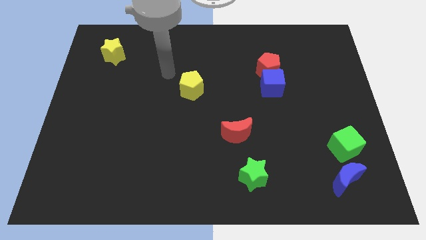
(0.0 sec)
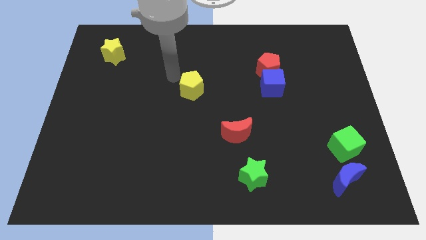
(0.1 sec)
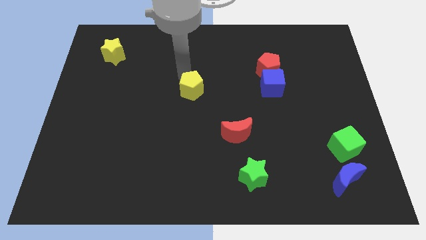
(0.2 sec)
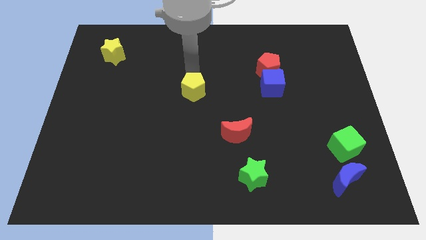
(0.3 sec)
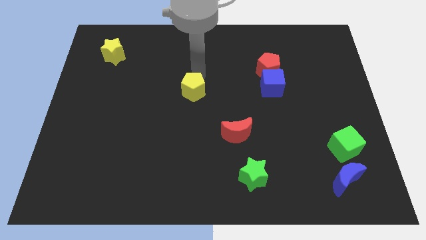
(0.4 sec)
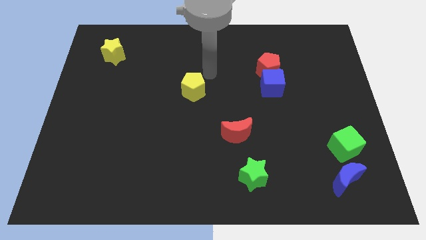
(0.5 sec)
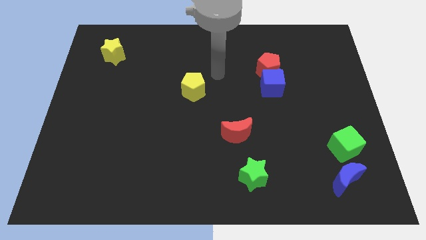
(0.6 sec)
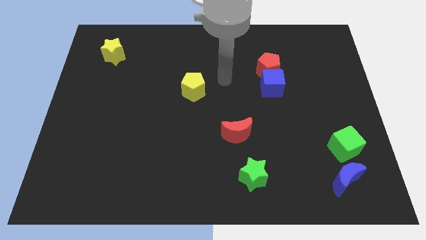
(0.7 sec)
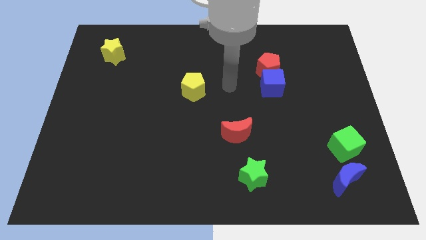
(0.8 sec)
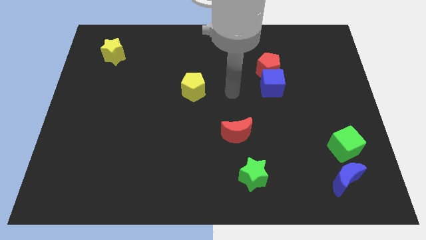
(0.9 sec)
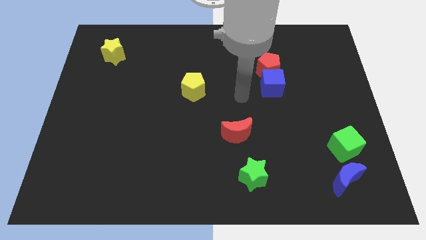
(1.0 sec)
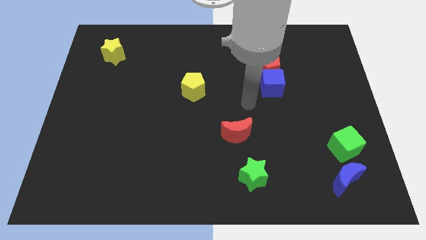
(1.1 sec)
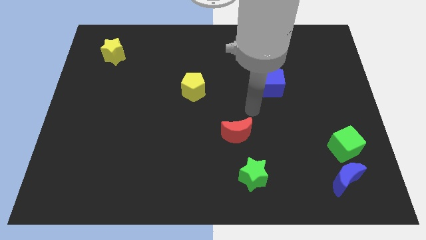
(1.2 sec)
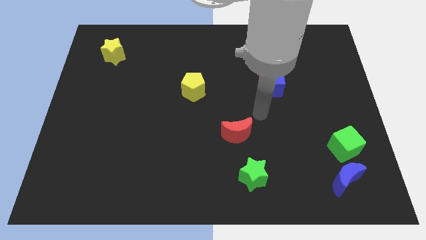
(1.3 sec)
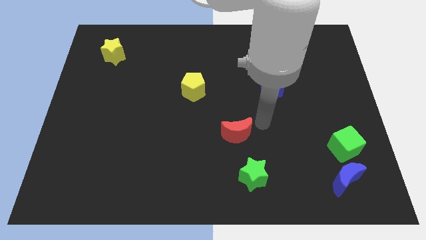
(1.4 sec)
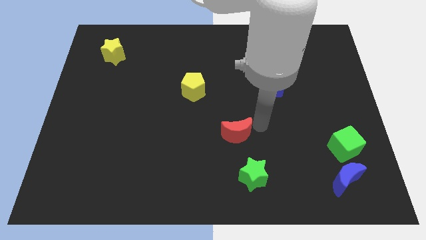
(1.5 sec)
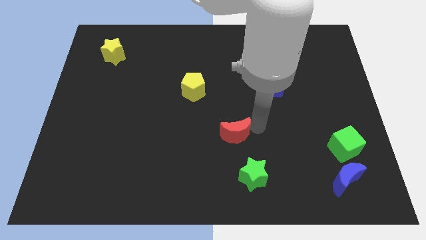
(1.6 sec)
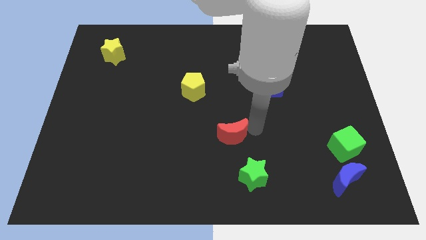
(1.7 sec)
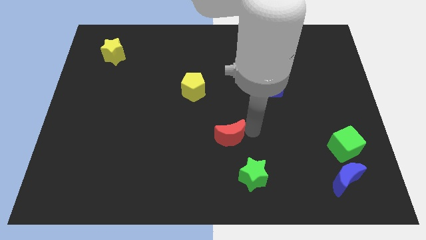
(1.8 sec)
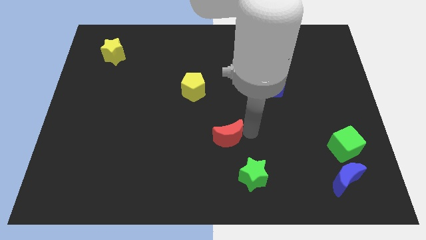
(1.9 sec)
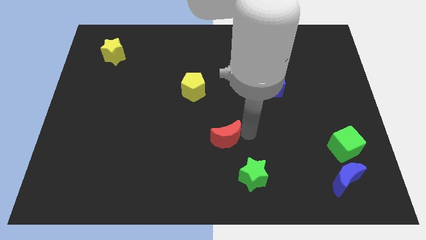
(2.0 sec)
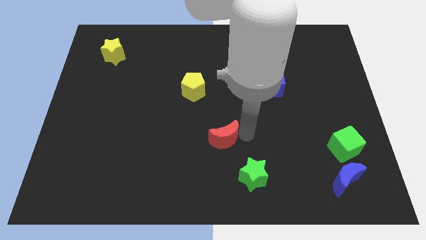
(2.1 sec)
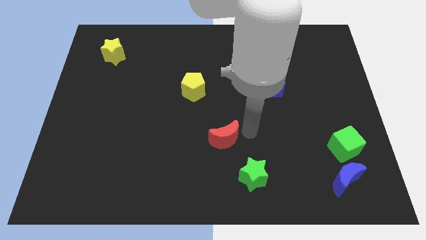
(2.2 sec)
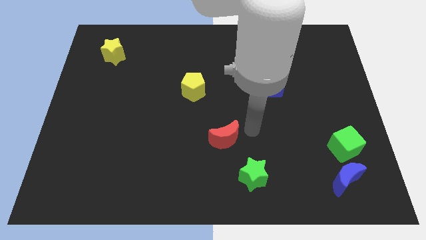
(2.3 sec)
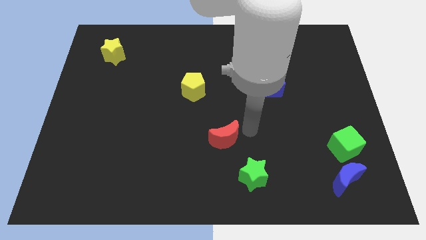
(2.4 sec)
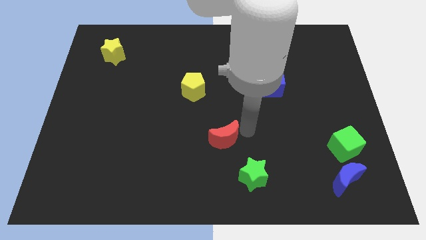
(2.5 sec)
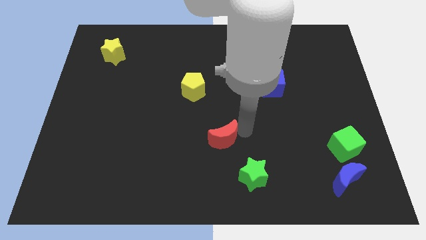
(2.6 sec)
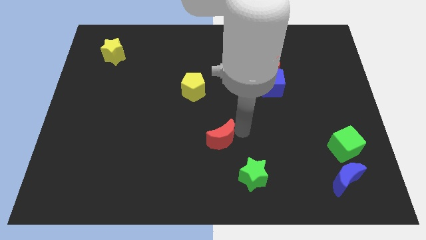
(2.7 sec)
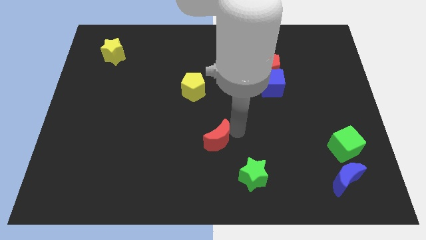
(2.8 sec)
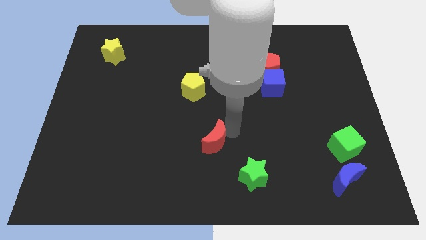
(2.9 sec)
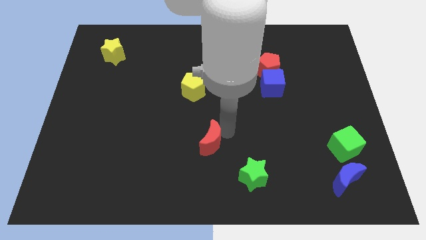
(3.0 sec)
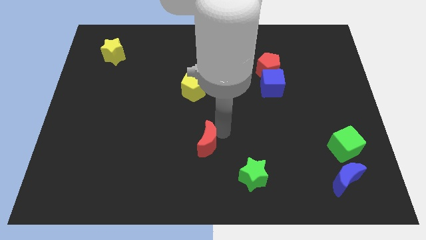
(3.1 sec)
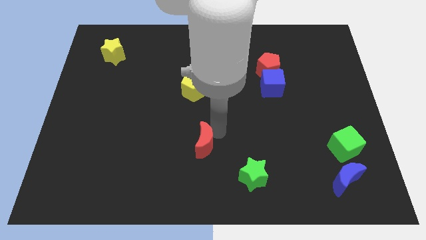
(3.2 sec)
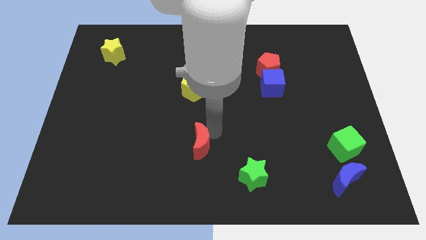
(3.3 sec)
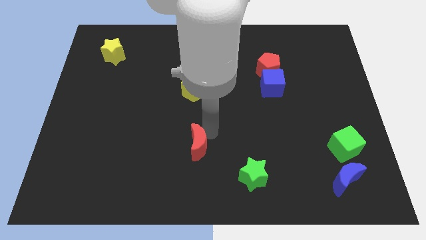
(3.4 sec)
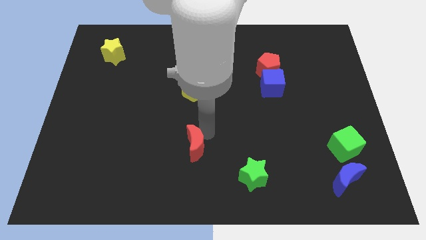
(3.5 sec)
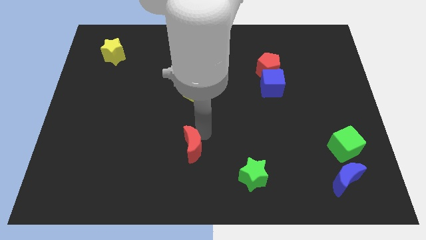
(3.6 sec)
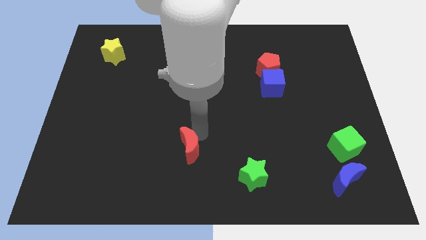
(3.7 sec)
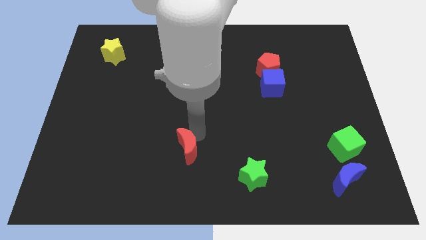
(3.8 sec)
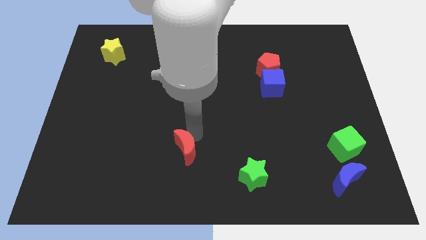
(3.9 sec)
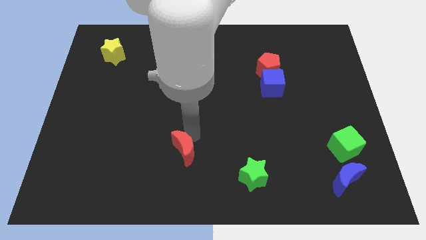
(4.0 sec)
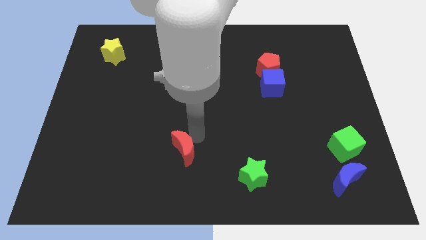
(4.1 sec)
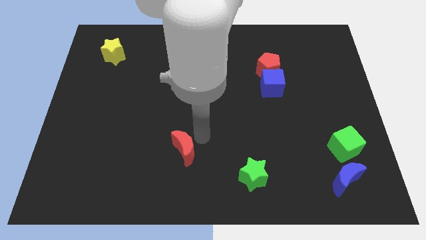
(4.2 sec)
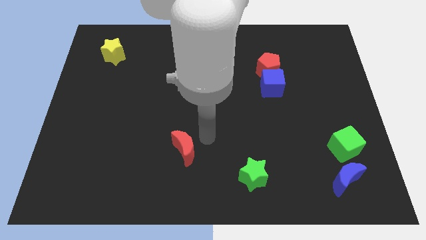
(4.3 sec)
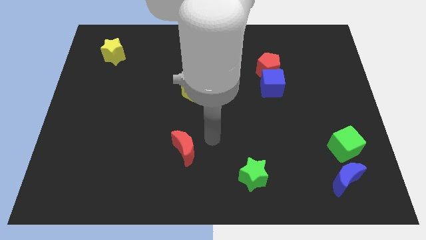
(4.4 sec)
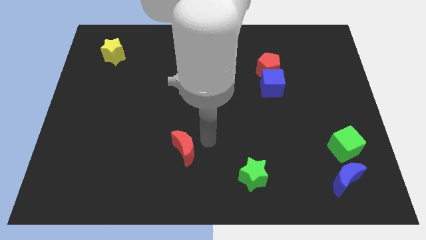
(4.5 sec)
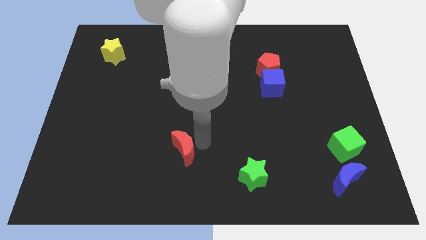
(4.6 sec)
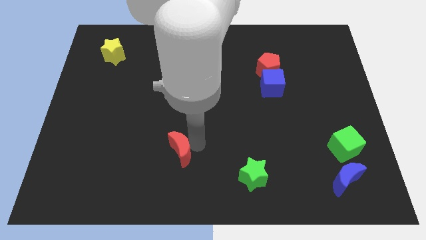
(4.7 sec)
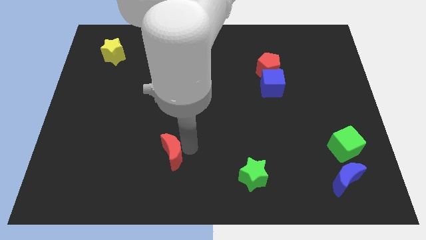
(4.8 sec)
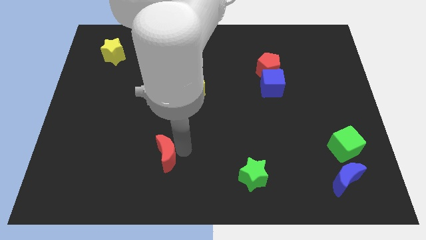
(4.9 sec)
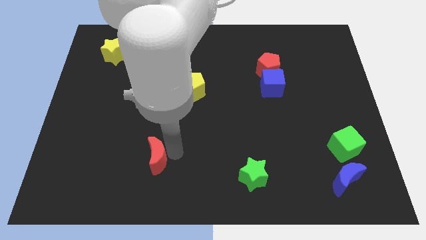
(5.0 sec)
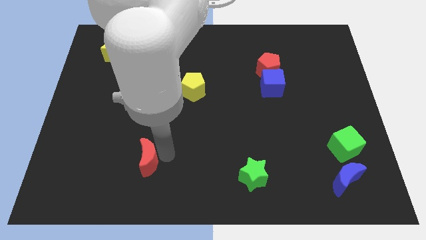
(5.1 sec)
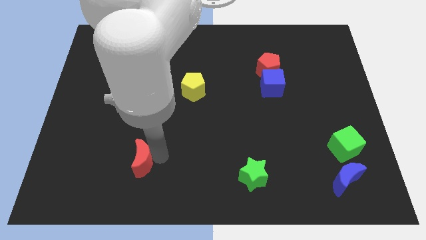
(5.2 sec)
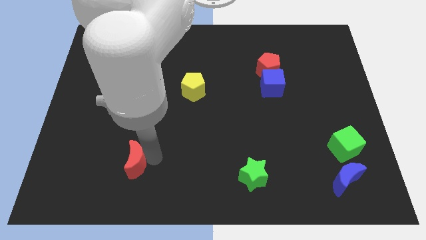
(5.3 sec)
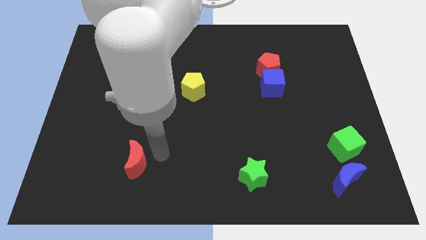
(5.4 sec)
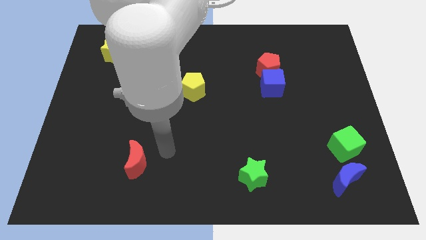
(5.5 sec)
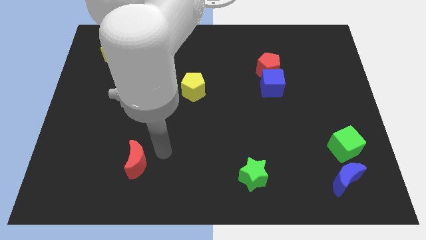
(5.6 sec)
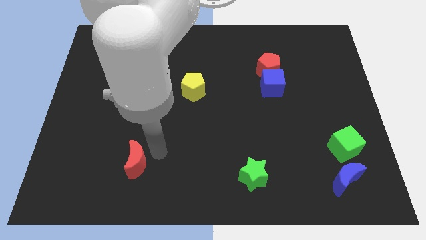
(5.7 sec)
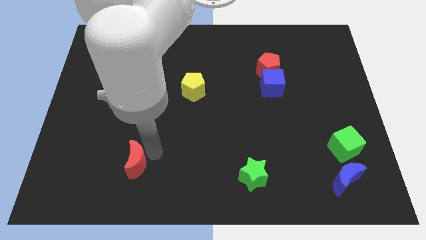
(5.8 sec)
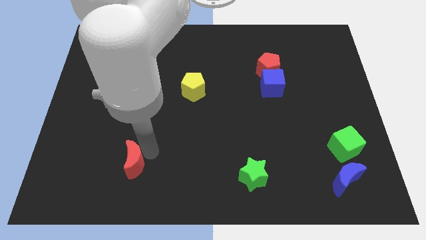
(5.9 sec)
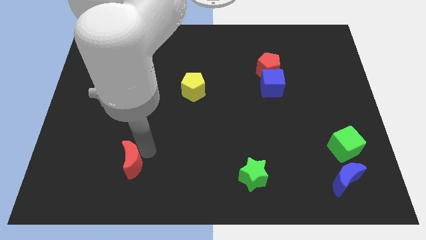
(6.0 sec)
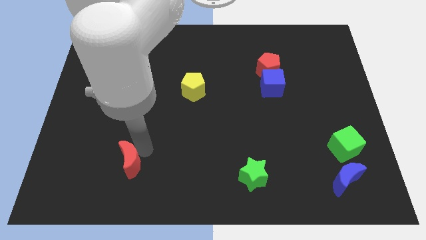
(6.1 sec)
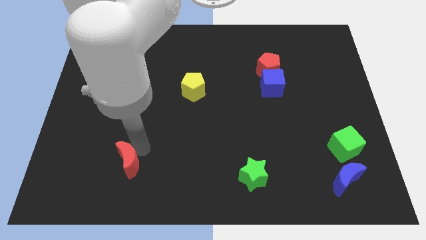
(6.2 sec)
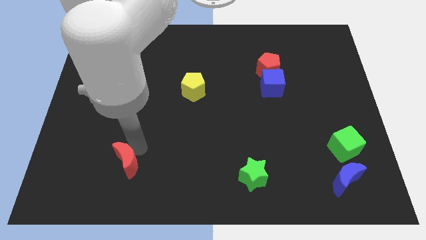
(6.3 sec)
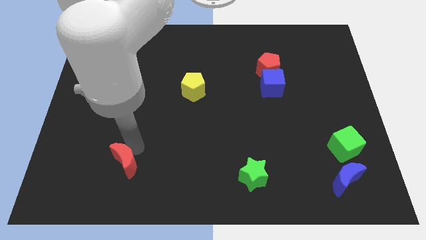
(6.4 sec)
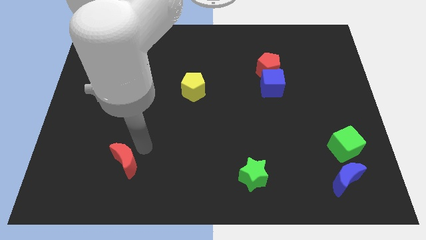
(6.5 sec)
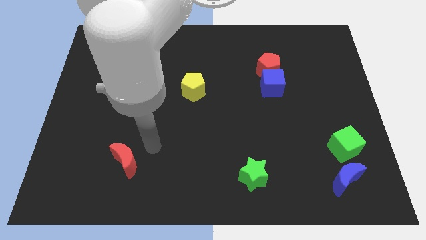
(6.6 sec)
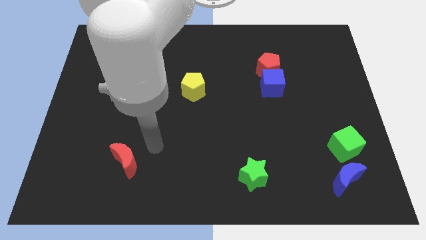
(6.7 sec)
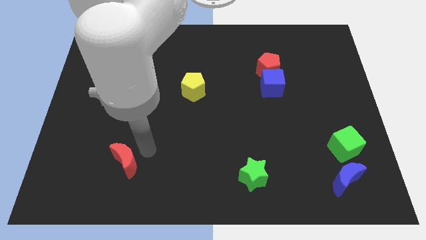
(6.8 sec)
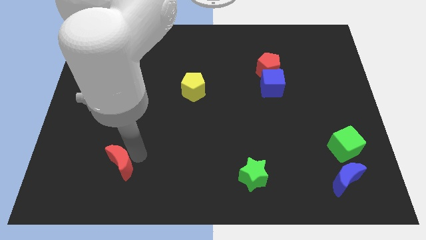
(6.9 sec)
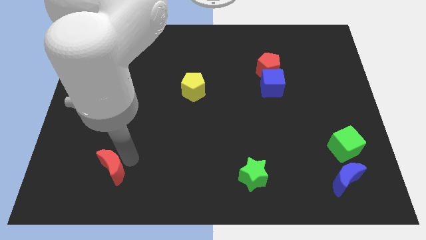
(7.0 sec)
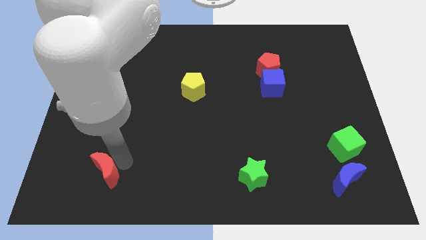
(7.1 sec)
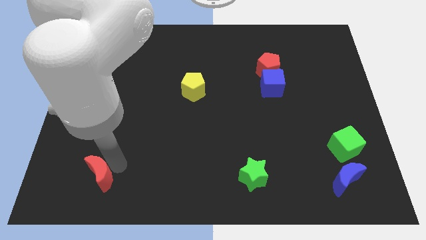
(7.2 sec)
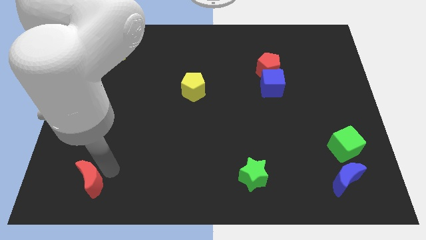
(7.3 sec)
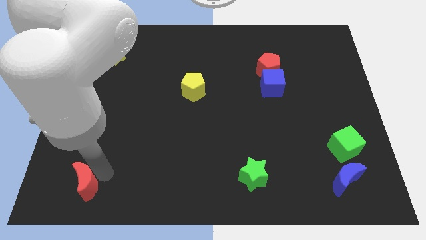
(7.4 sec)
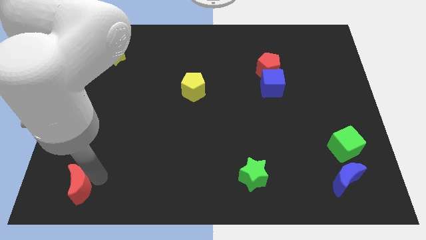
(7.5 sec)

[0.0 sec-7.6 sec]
slide the red moon to the bottom left of the board
